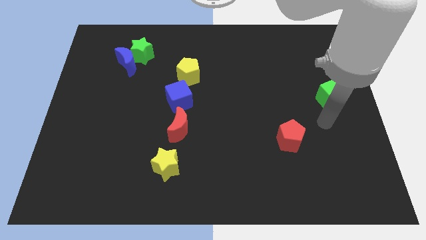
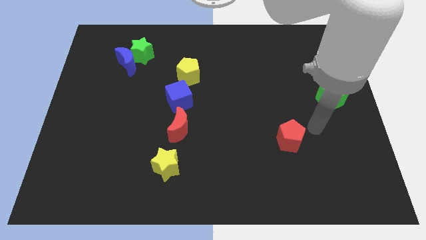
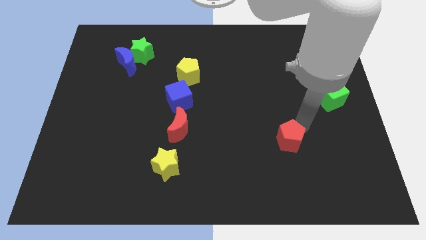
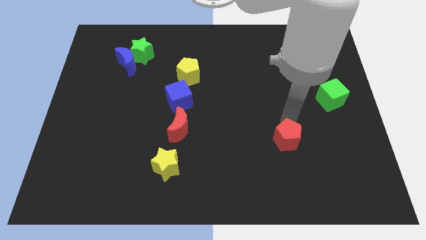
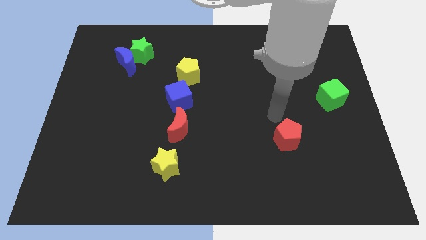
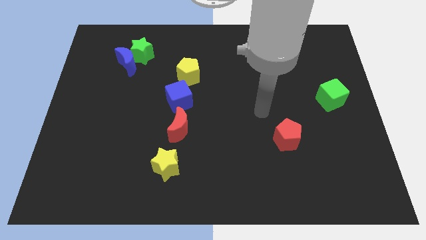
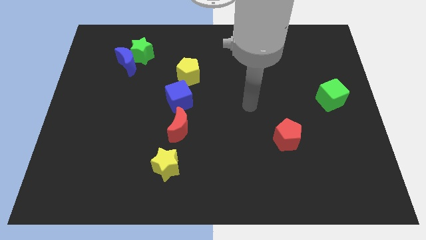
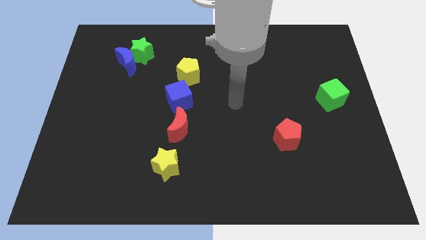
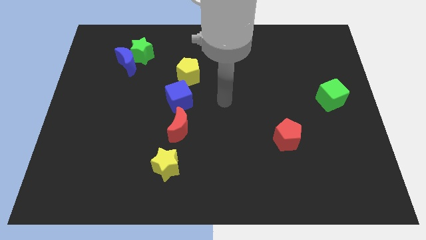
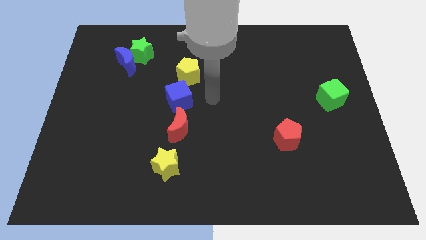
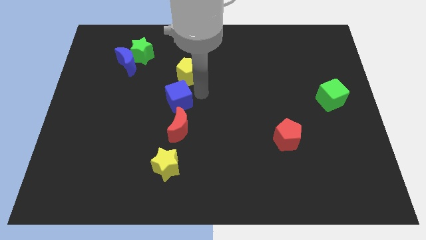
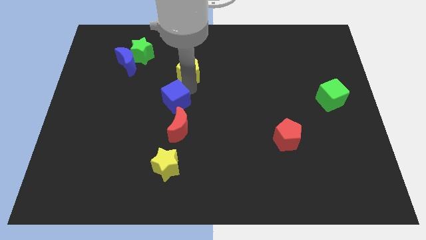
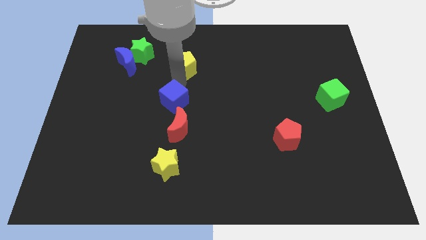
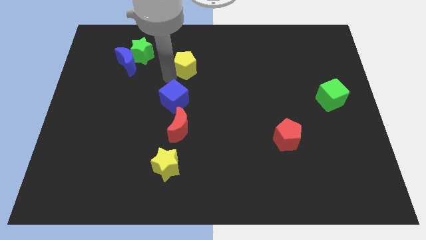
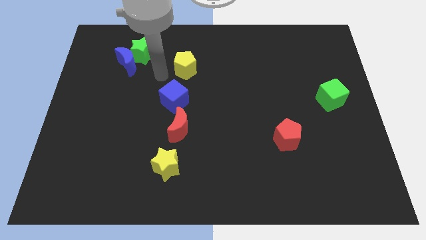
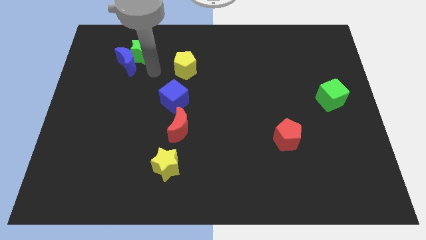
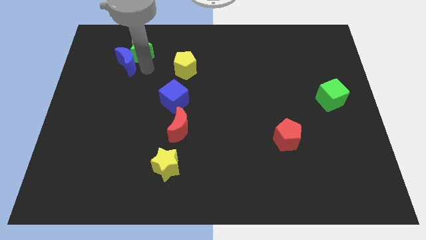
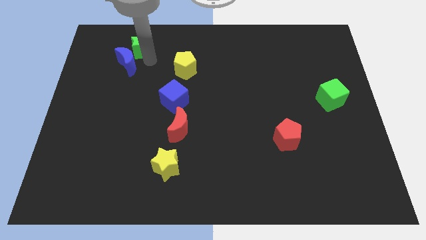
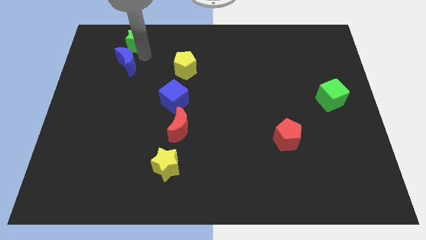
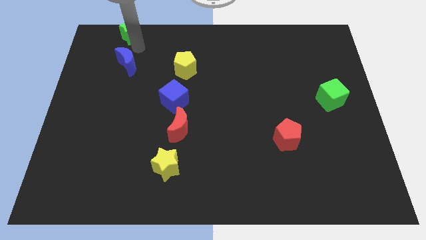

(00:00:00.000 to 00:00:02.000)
move the blue moon away from the green star

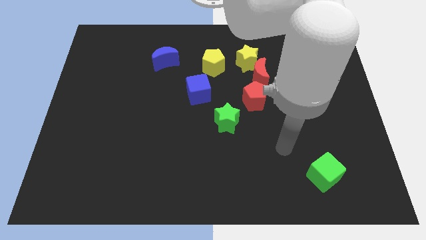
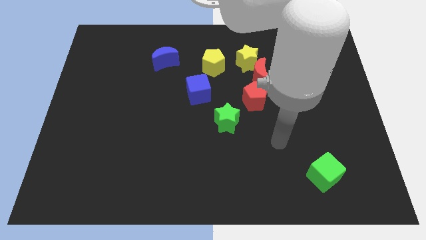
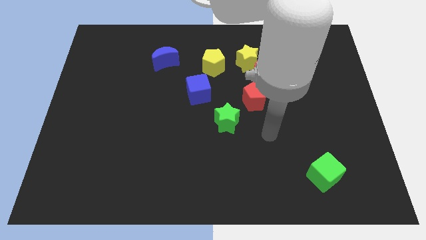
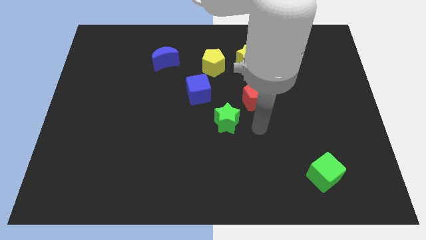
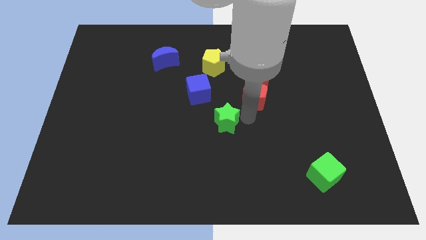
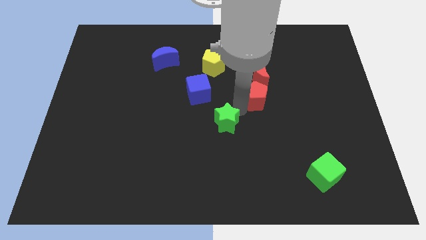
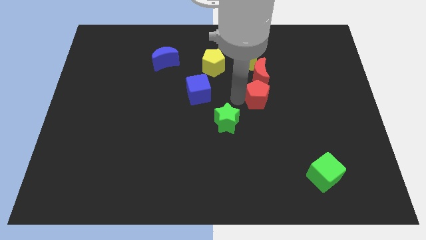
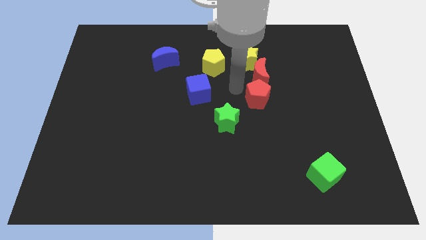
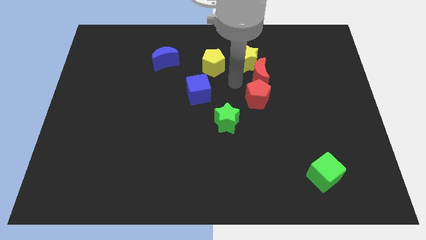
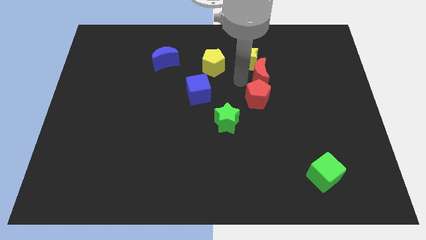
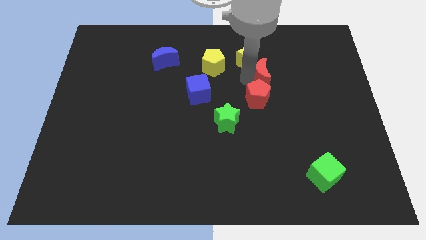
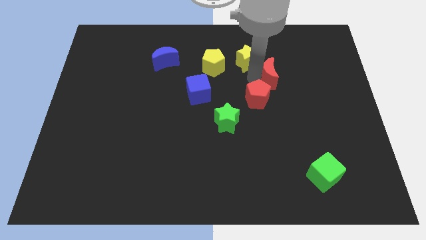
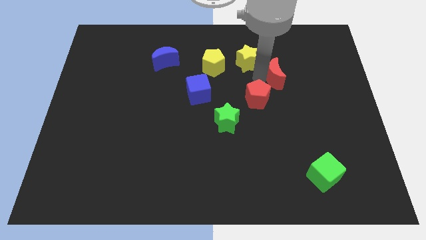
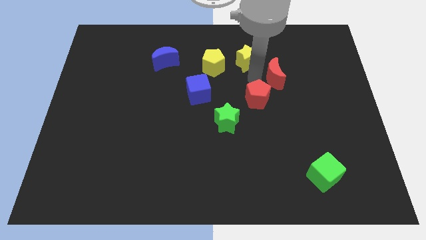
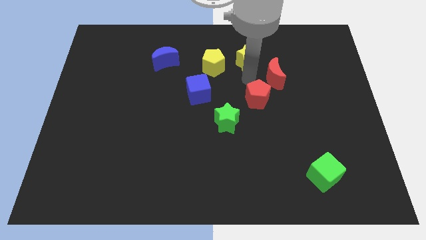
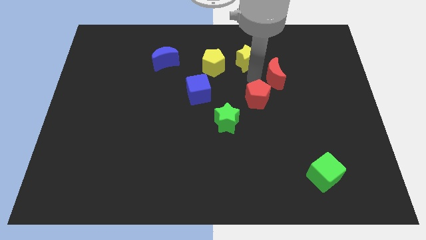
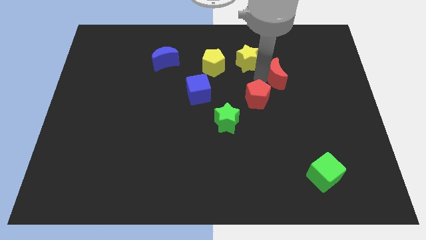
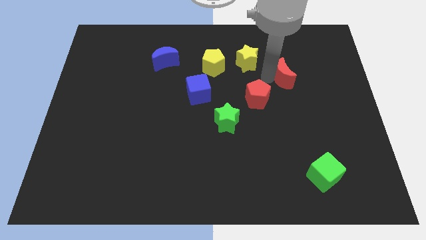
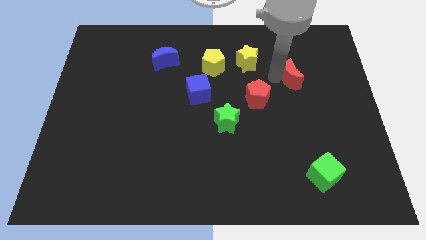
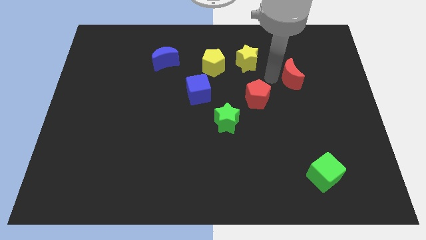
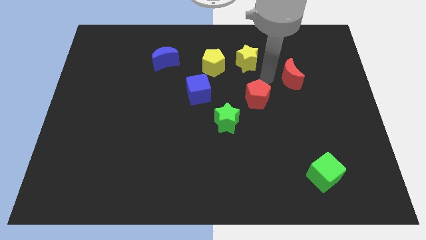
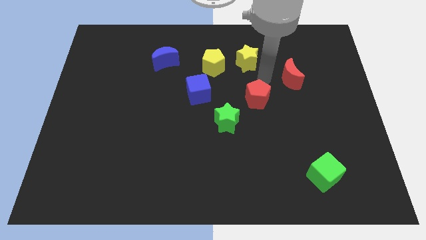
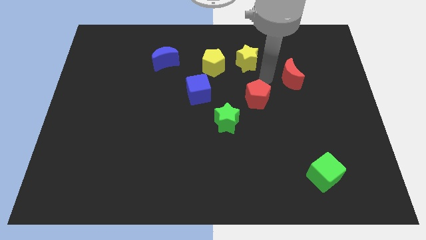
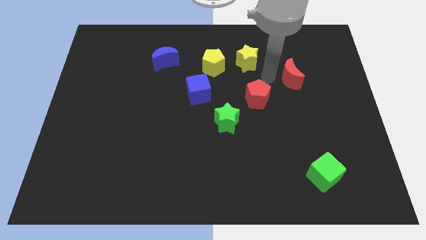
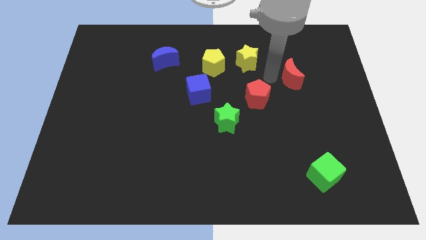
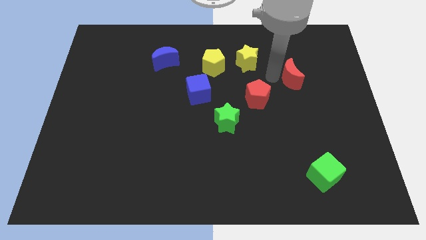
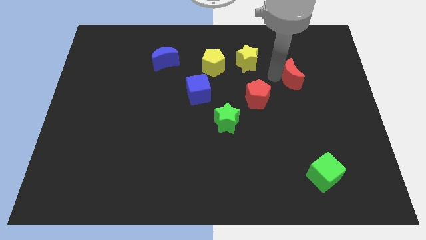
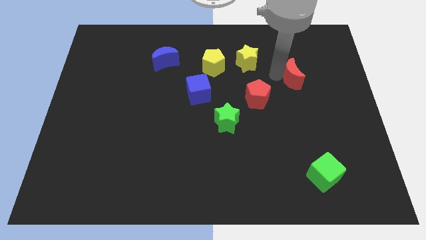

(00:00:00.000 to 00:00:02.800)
move the red moon away from the yellow star and red pentagon

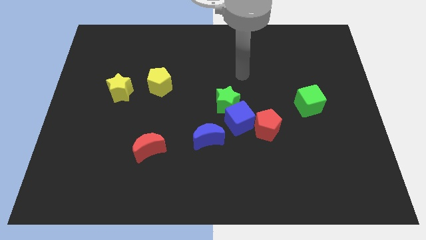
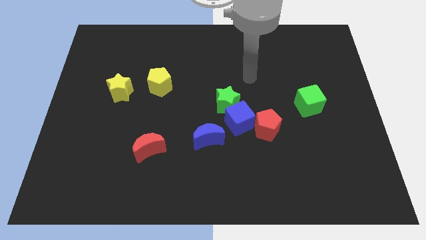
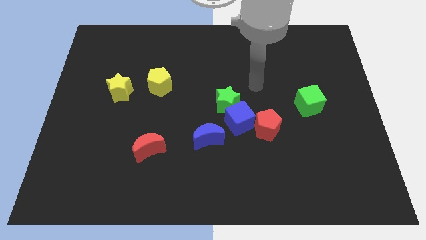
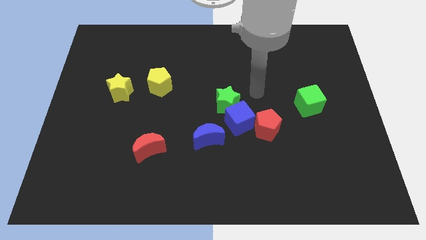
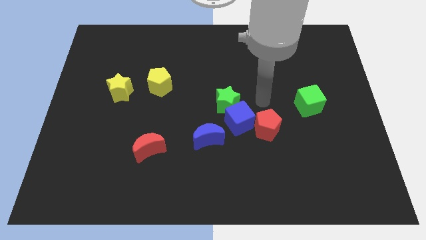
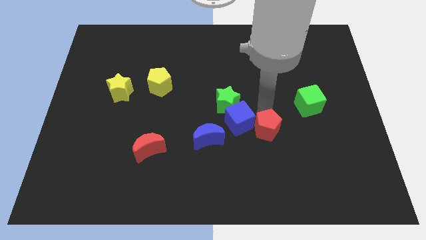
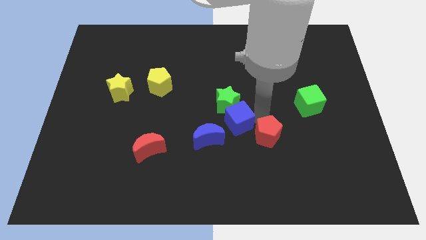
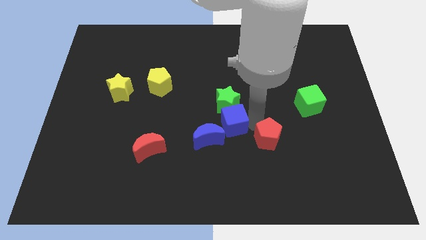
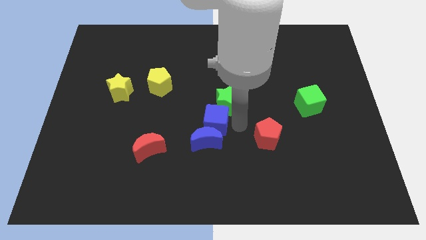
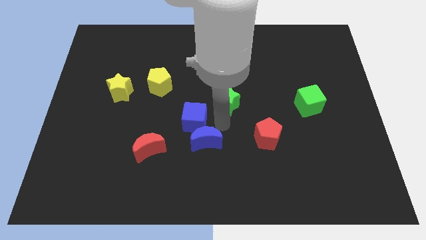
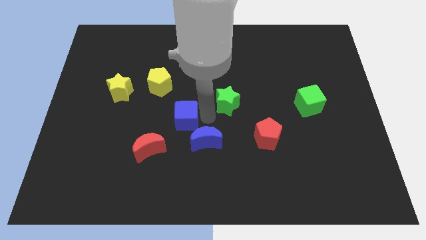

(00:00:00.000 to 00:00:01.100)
pull the green star apart from the blue cube

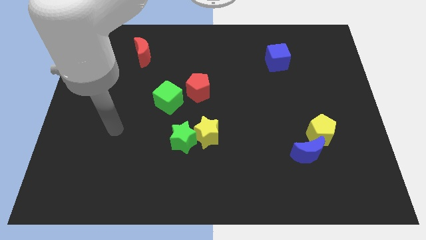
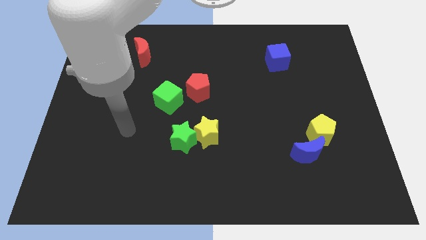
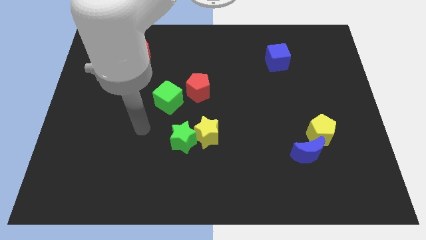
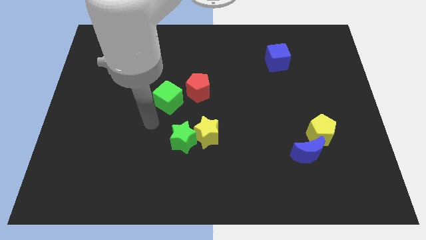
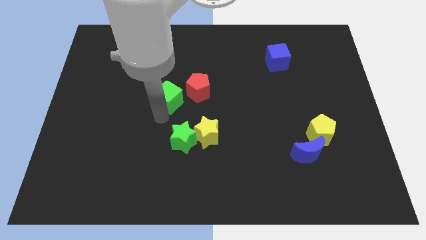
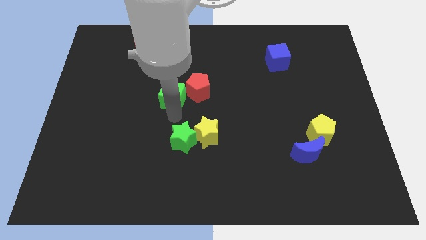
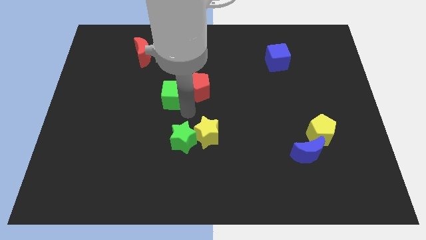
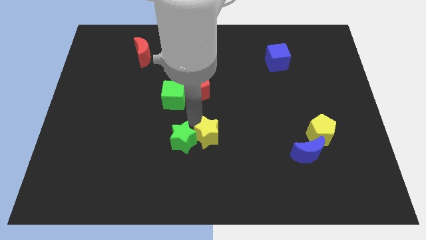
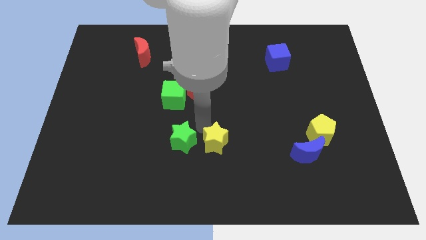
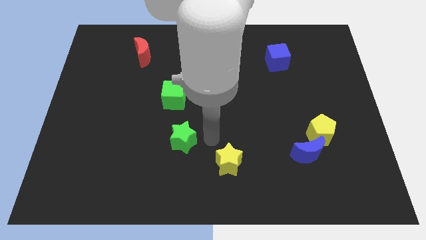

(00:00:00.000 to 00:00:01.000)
pull the green star apart from the yellow star

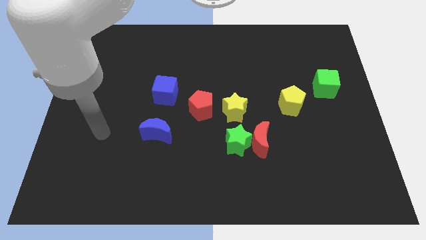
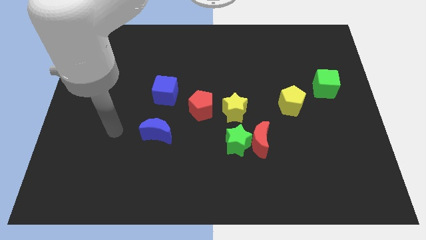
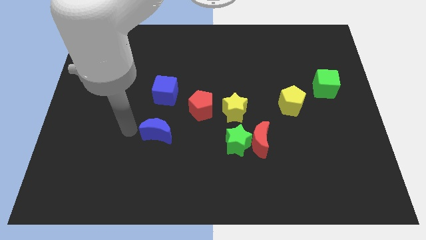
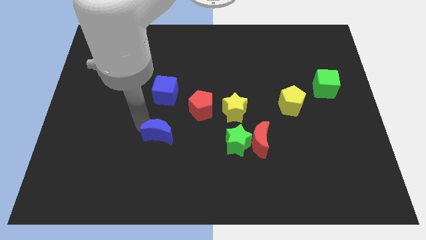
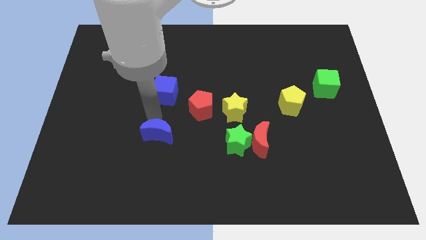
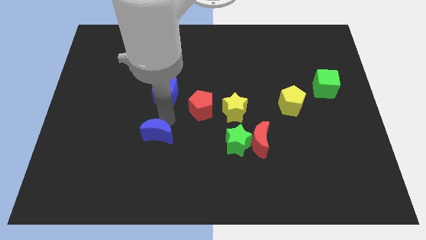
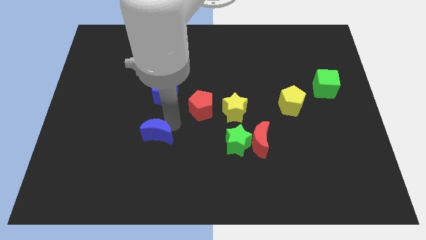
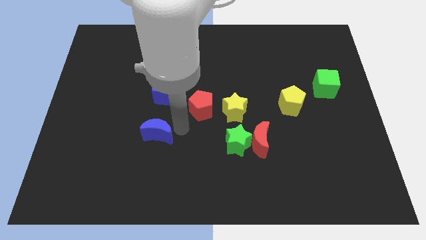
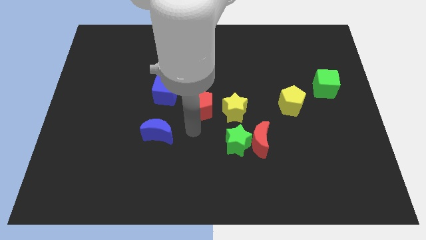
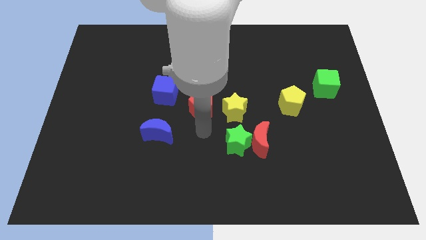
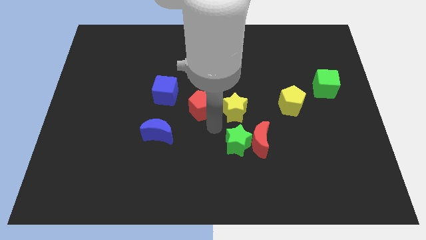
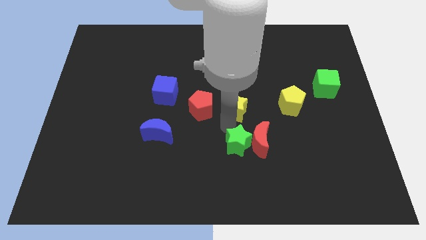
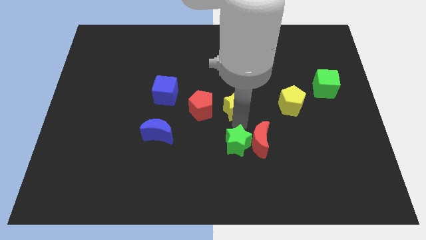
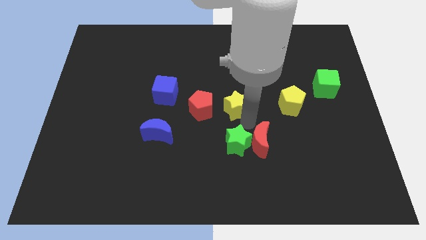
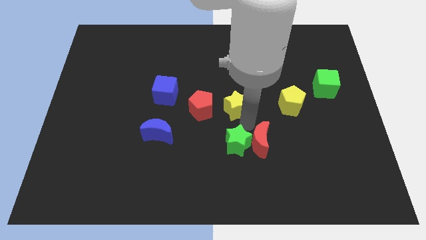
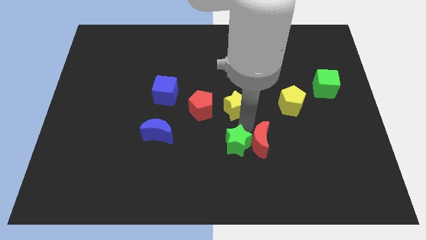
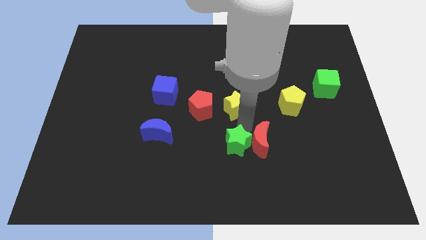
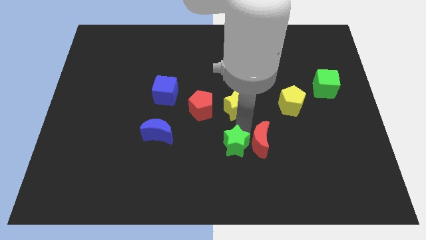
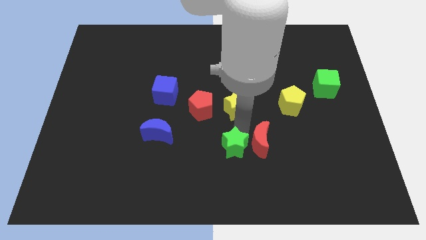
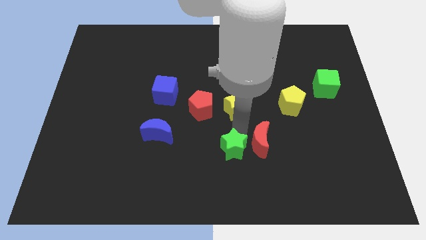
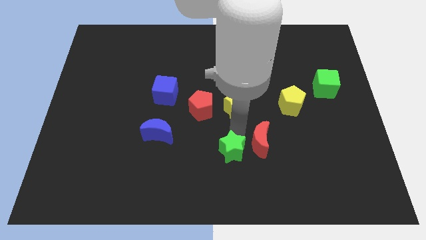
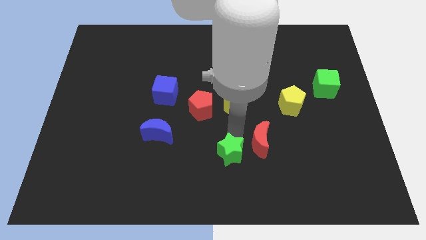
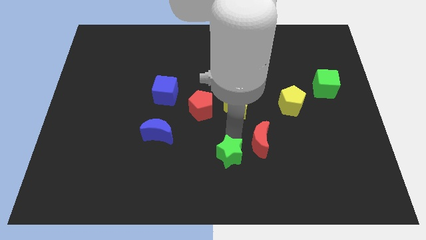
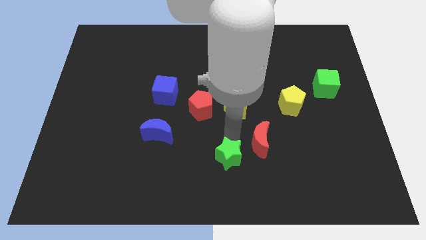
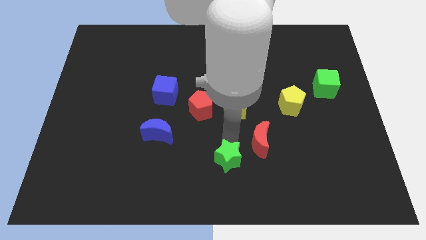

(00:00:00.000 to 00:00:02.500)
separate the green star from the red moon and yellow star
